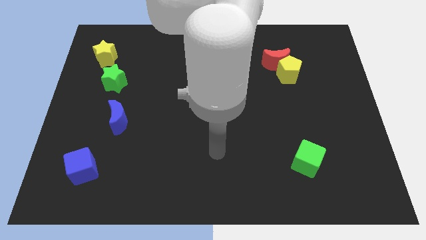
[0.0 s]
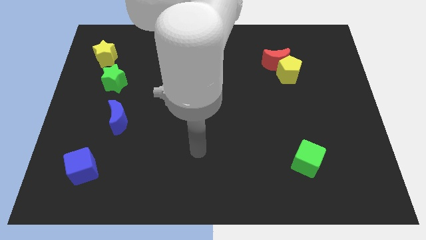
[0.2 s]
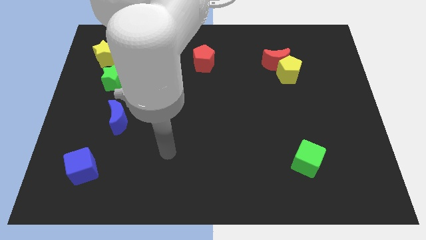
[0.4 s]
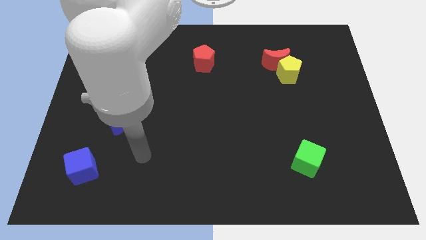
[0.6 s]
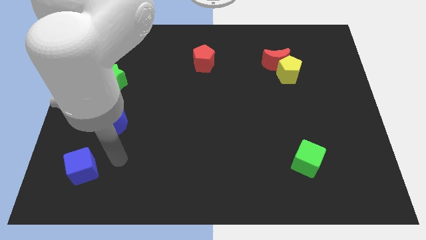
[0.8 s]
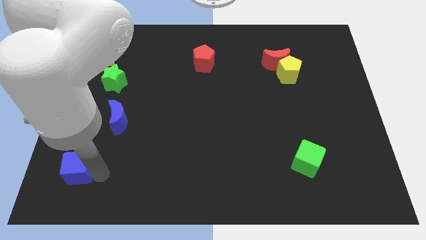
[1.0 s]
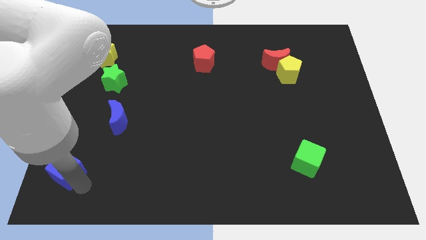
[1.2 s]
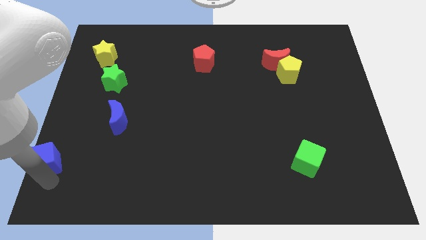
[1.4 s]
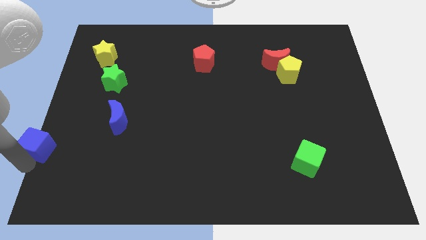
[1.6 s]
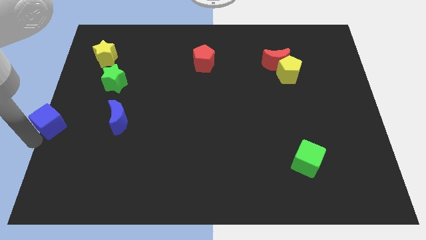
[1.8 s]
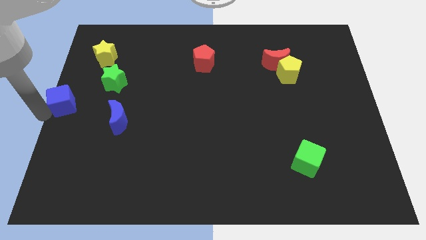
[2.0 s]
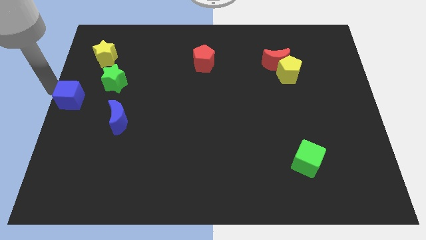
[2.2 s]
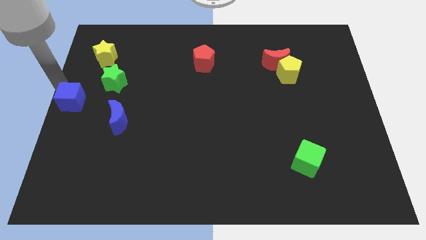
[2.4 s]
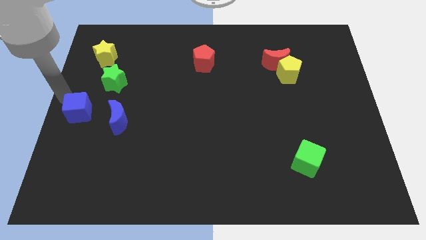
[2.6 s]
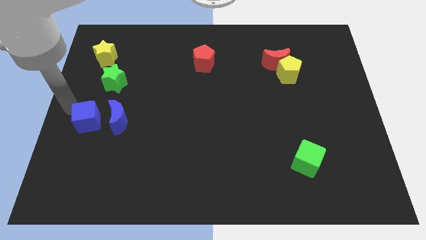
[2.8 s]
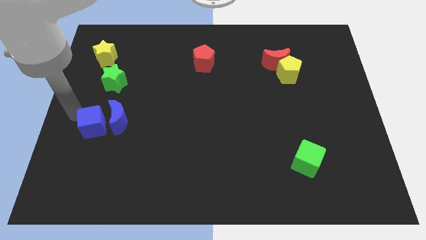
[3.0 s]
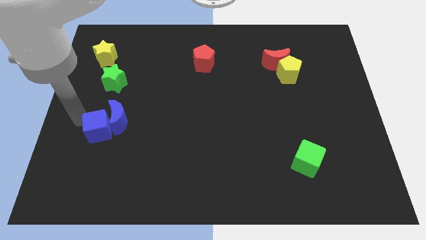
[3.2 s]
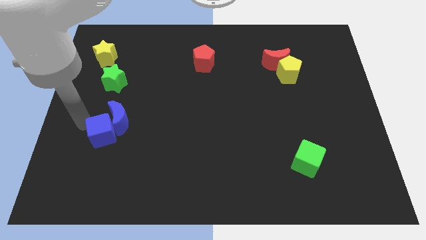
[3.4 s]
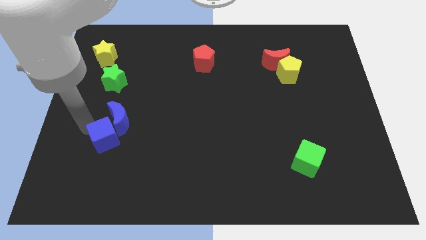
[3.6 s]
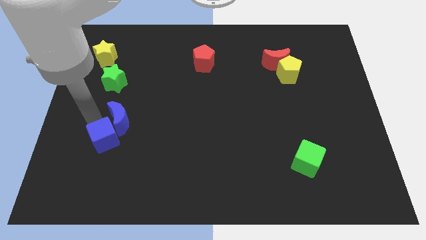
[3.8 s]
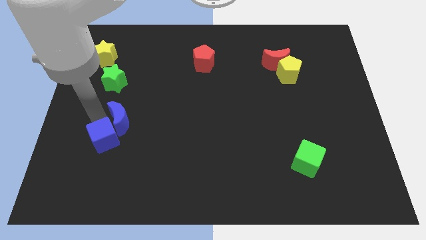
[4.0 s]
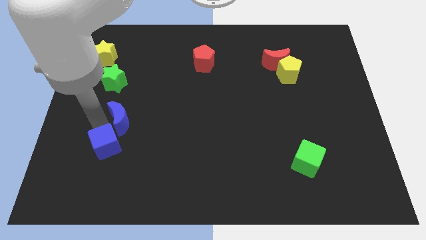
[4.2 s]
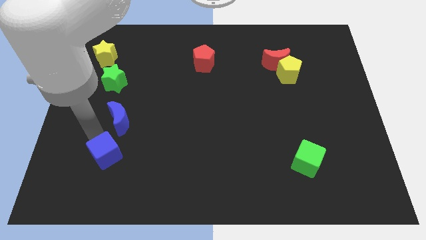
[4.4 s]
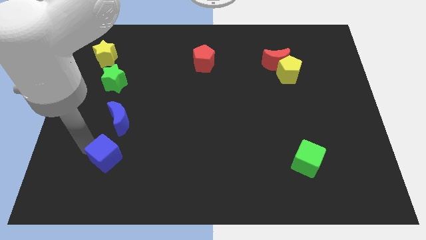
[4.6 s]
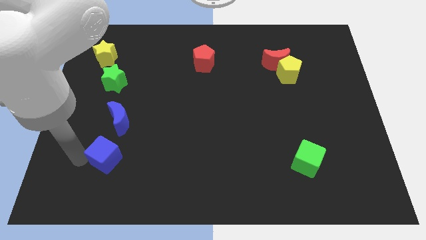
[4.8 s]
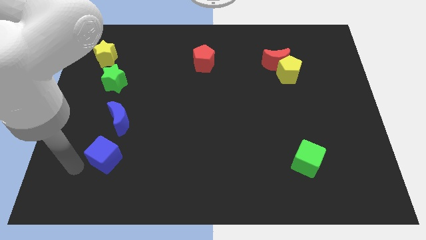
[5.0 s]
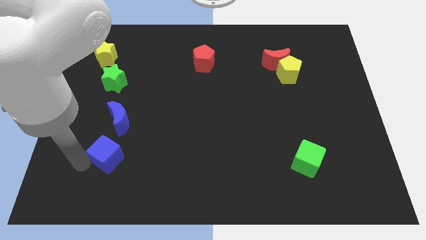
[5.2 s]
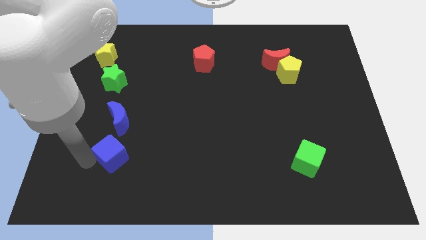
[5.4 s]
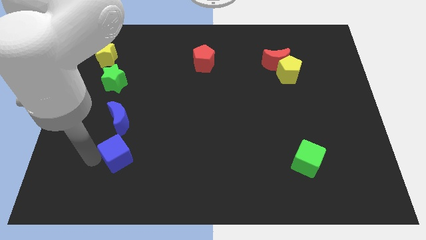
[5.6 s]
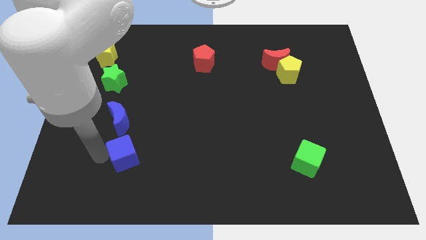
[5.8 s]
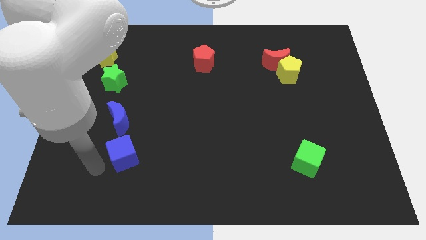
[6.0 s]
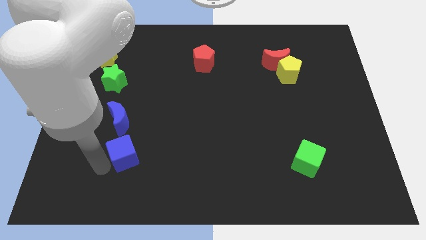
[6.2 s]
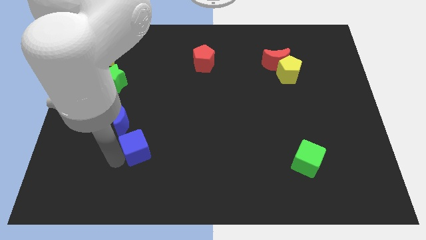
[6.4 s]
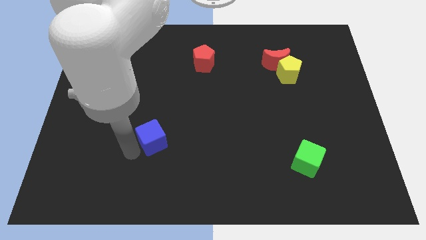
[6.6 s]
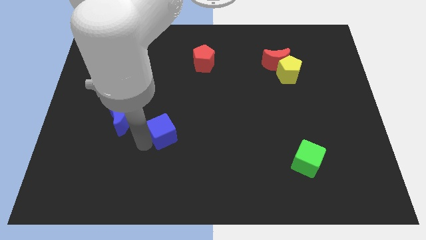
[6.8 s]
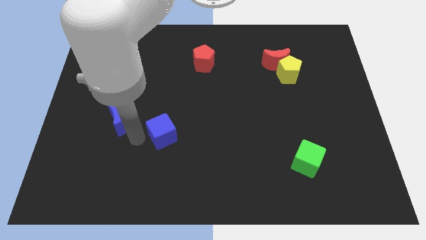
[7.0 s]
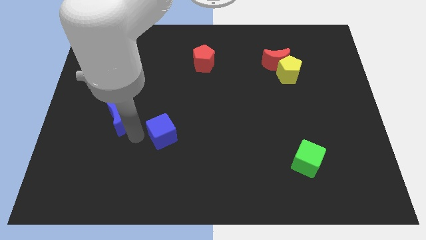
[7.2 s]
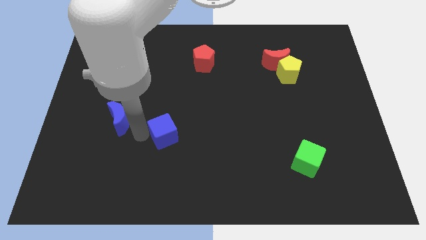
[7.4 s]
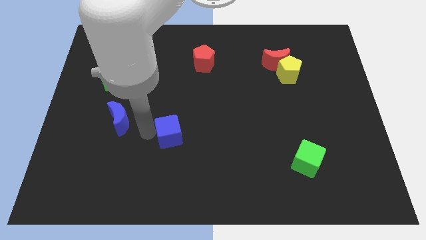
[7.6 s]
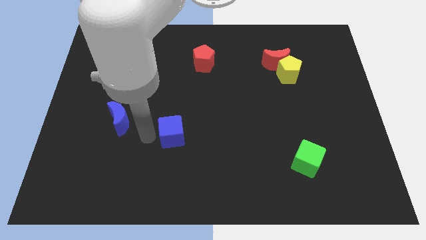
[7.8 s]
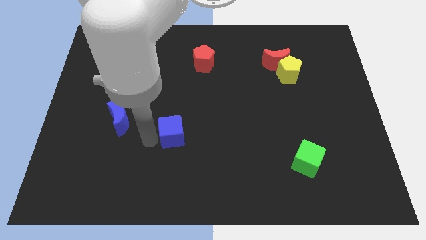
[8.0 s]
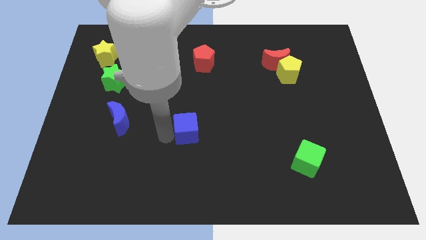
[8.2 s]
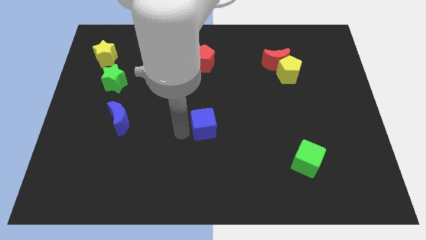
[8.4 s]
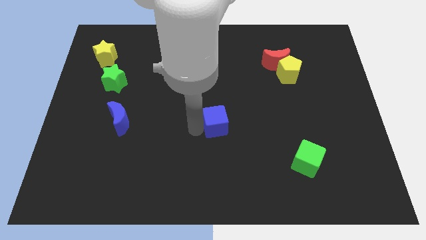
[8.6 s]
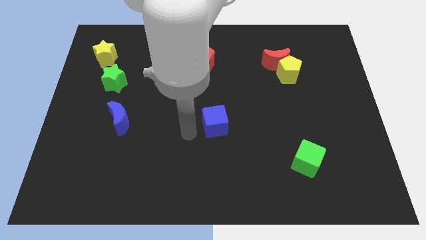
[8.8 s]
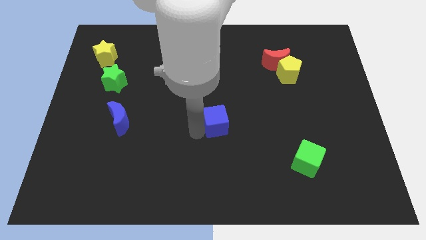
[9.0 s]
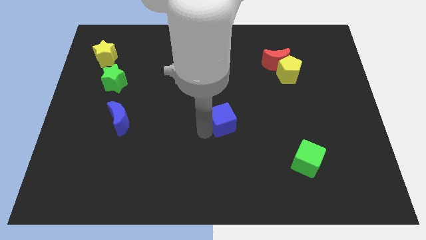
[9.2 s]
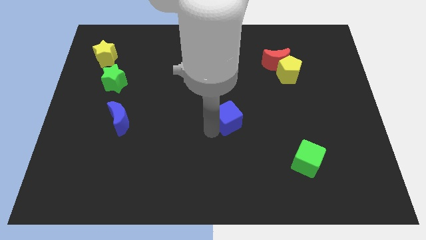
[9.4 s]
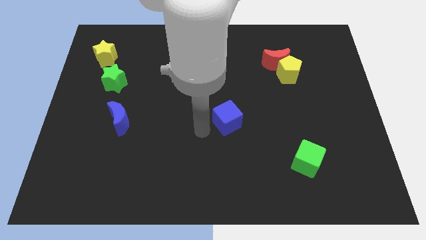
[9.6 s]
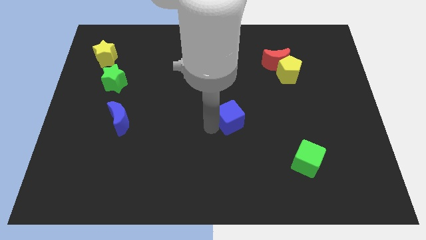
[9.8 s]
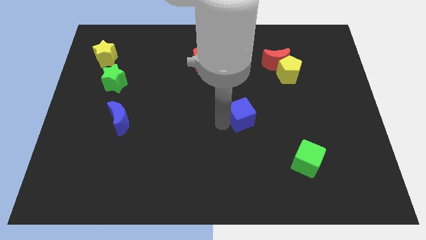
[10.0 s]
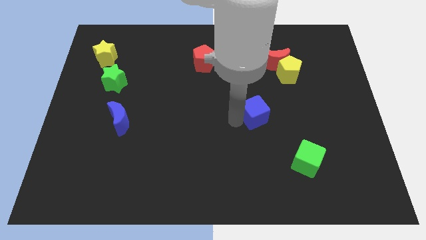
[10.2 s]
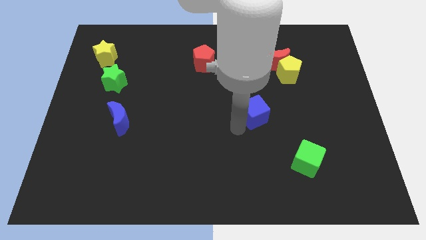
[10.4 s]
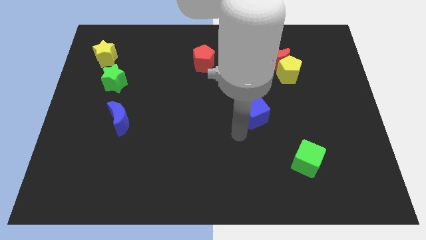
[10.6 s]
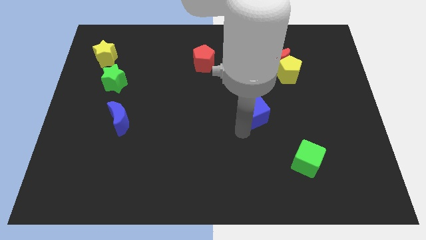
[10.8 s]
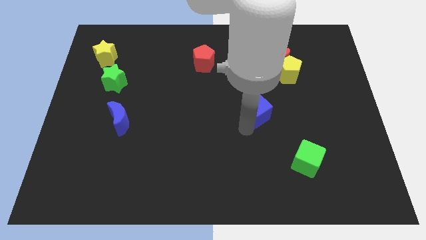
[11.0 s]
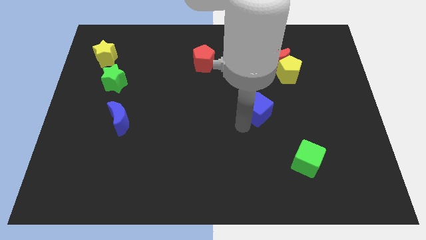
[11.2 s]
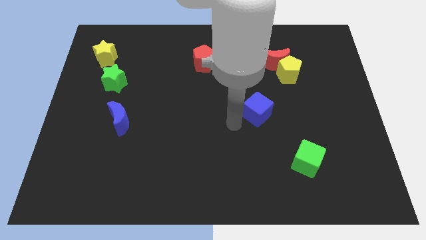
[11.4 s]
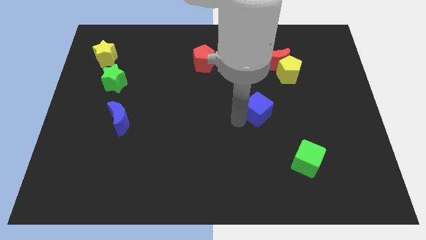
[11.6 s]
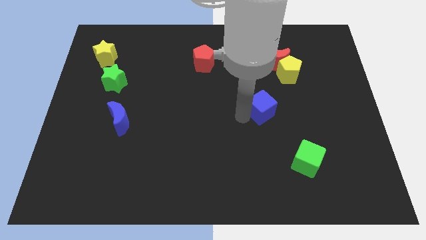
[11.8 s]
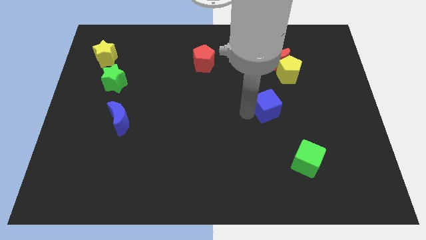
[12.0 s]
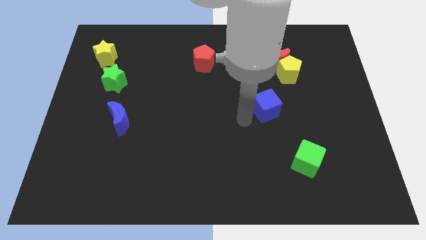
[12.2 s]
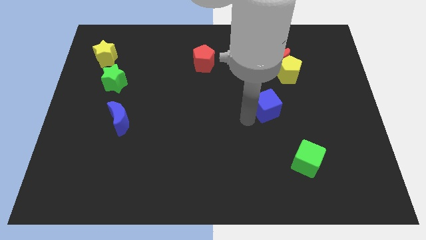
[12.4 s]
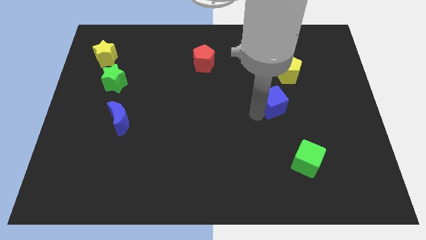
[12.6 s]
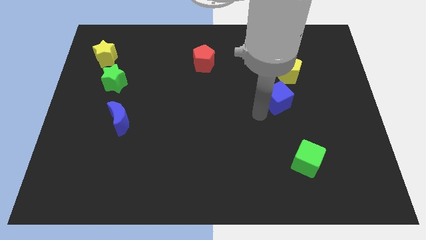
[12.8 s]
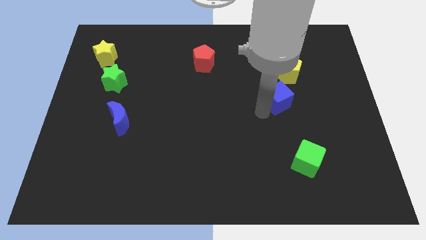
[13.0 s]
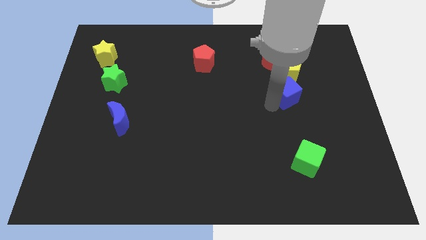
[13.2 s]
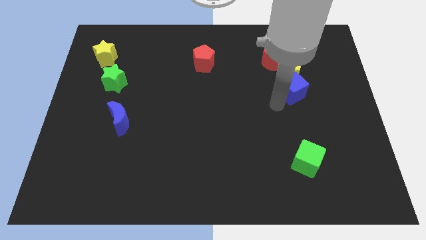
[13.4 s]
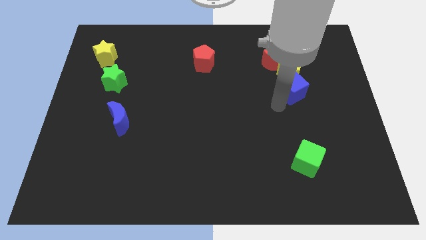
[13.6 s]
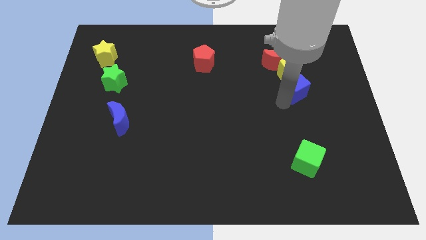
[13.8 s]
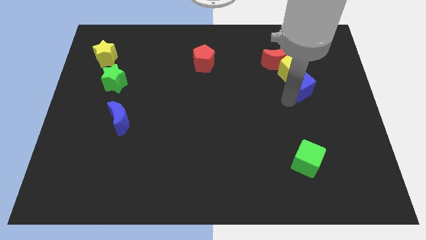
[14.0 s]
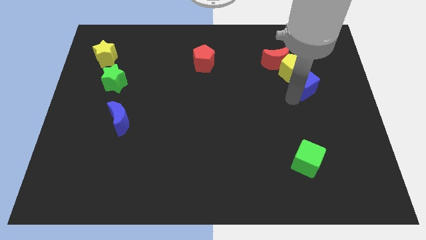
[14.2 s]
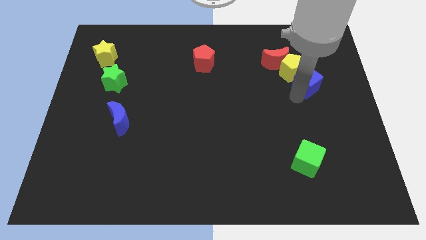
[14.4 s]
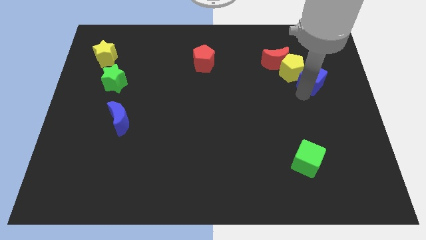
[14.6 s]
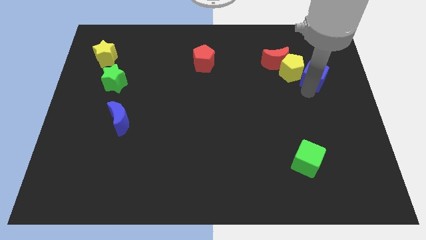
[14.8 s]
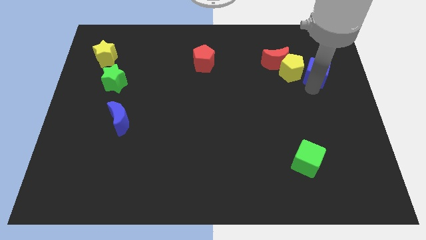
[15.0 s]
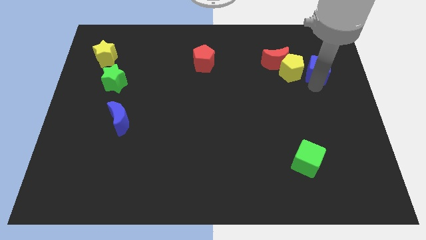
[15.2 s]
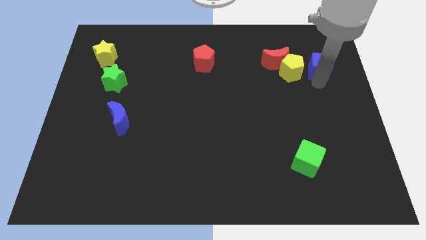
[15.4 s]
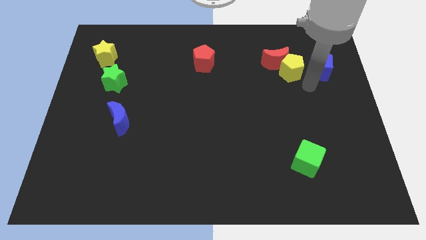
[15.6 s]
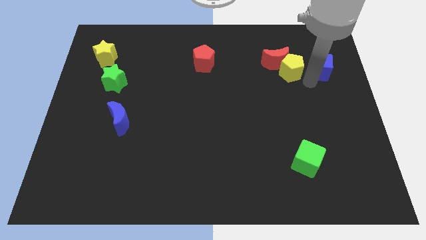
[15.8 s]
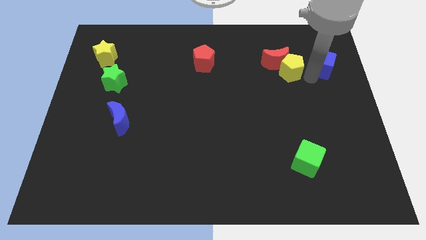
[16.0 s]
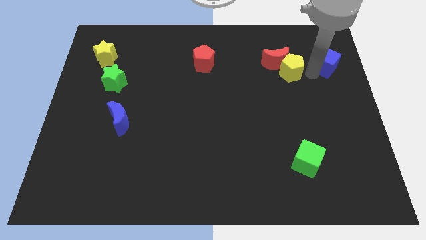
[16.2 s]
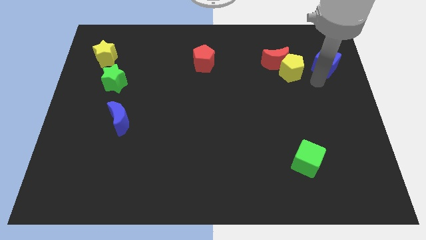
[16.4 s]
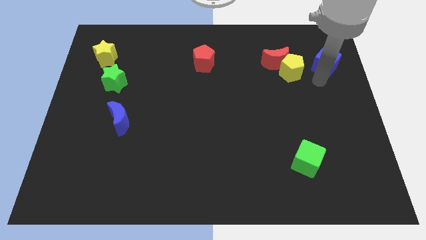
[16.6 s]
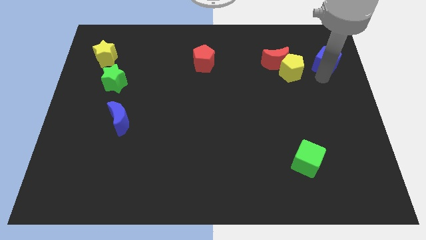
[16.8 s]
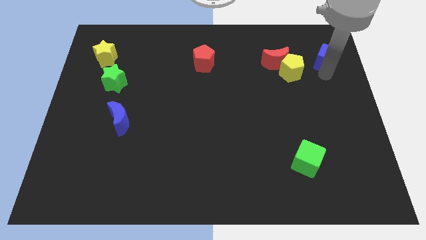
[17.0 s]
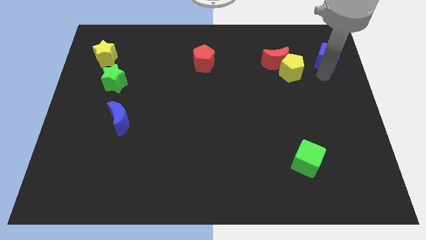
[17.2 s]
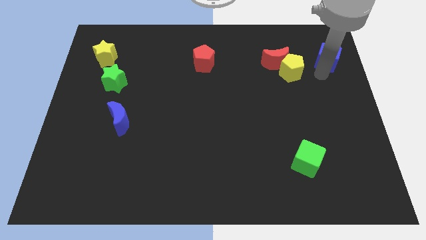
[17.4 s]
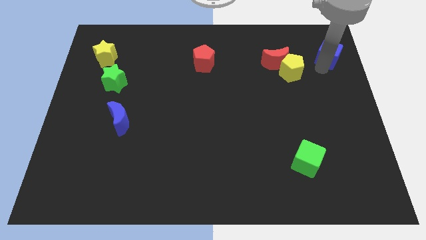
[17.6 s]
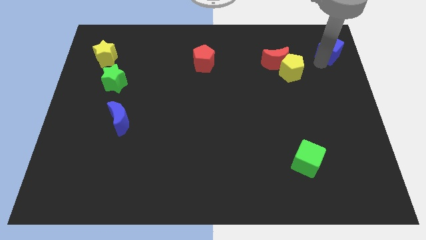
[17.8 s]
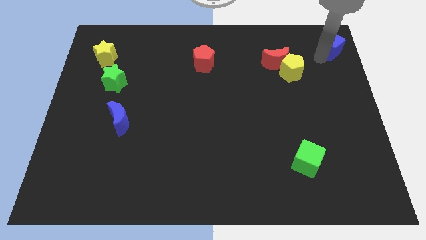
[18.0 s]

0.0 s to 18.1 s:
push the blue cube to the top right
